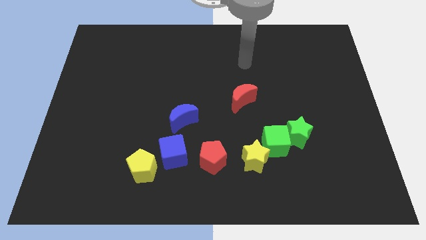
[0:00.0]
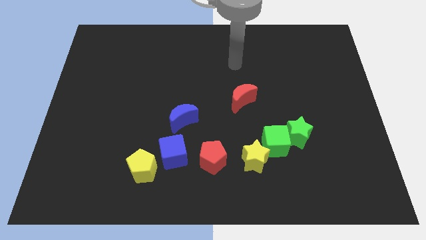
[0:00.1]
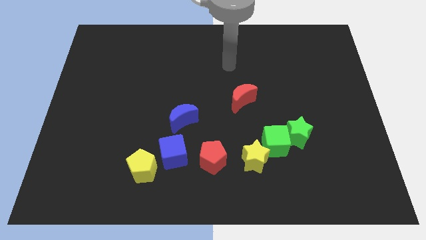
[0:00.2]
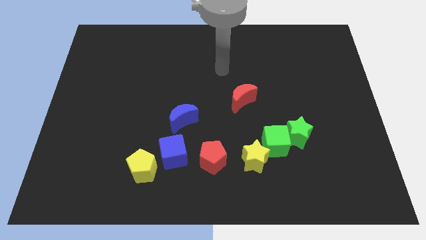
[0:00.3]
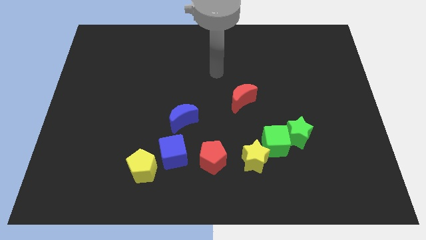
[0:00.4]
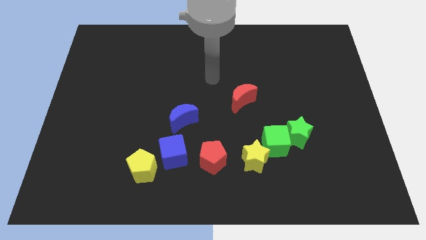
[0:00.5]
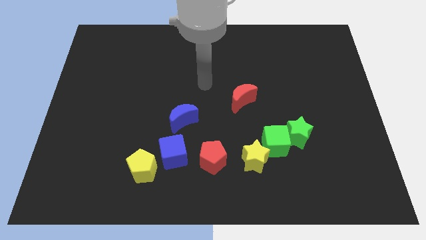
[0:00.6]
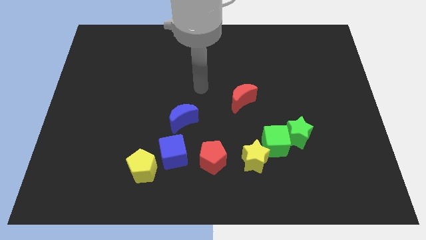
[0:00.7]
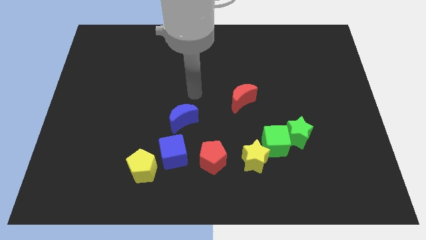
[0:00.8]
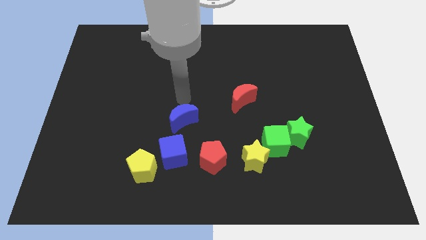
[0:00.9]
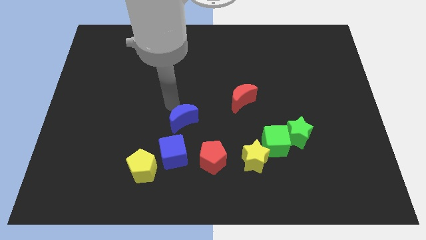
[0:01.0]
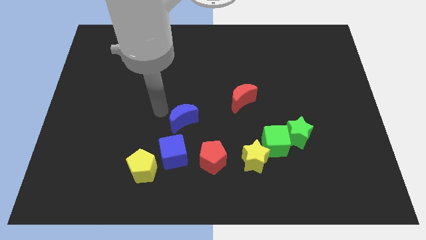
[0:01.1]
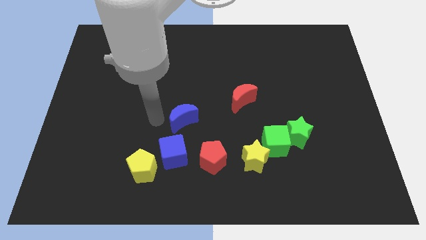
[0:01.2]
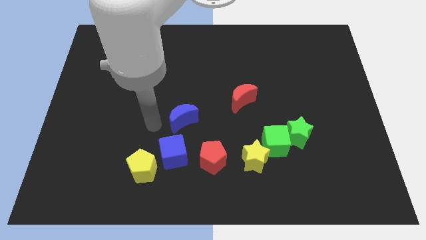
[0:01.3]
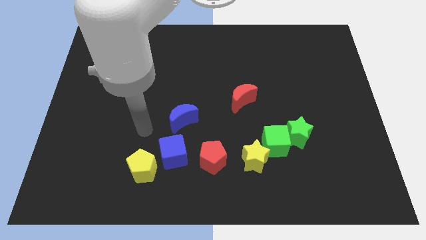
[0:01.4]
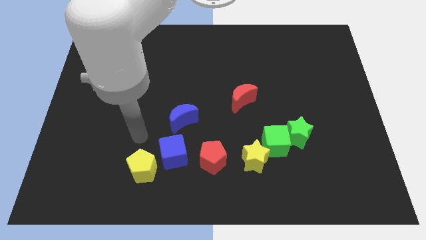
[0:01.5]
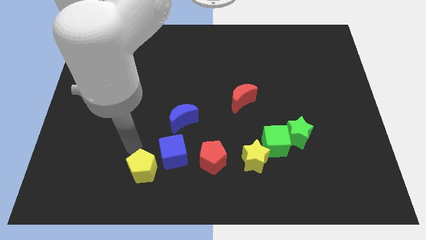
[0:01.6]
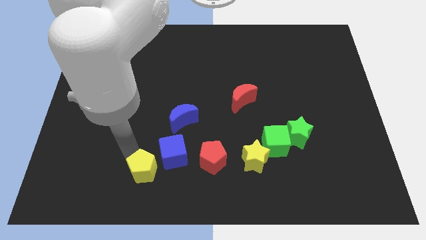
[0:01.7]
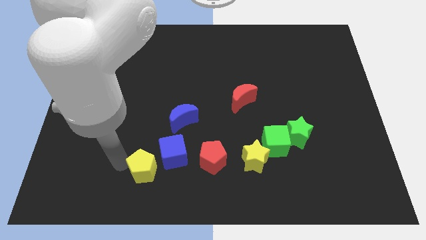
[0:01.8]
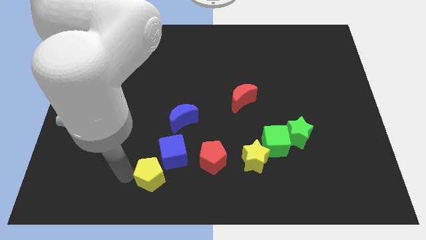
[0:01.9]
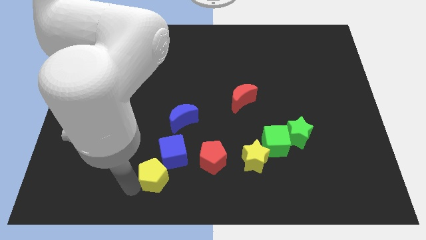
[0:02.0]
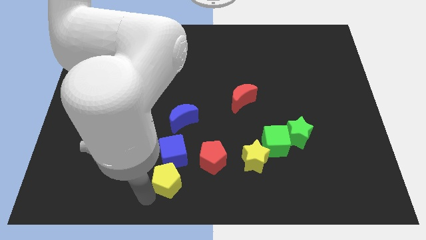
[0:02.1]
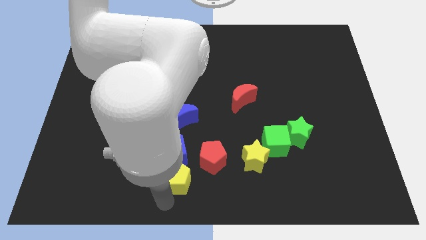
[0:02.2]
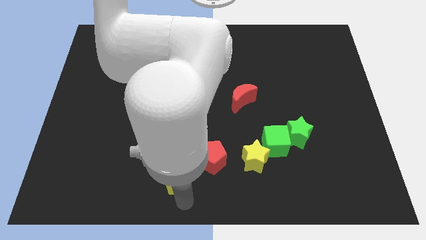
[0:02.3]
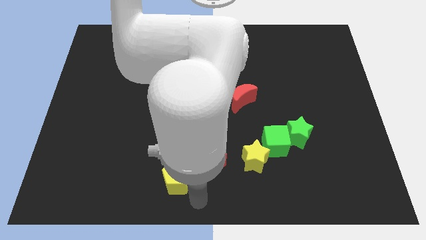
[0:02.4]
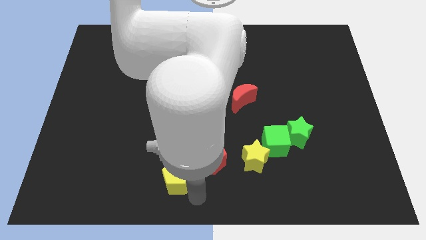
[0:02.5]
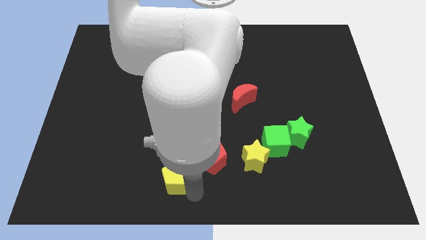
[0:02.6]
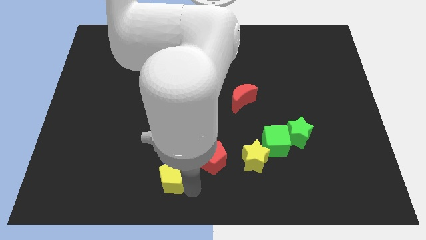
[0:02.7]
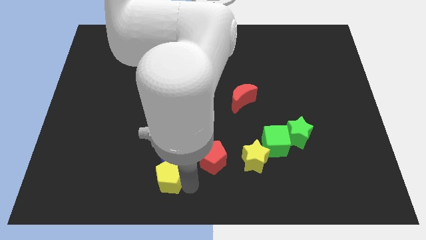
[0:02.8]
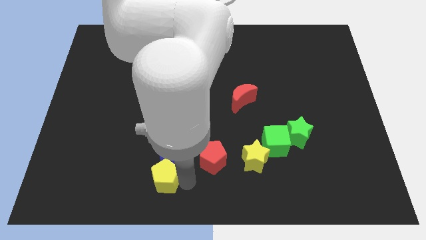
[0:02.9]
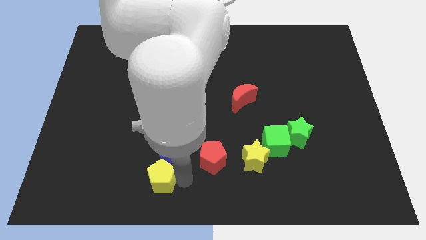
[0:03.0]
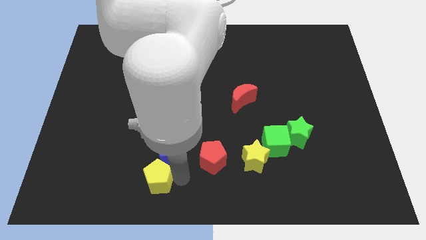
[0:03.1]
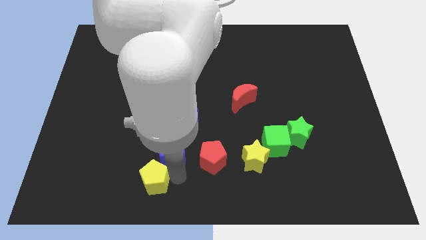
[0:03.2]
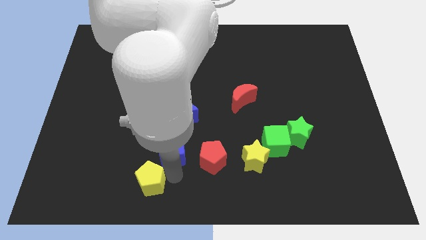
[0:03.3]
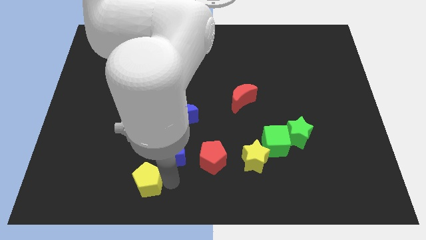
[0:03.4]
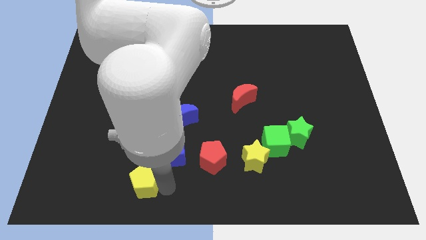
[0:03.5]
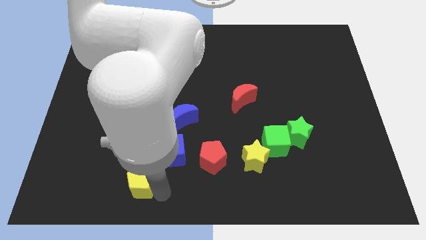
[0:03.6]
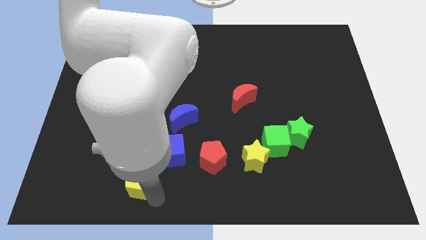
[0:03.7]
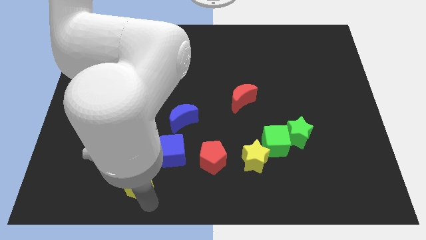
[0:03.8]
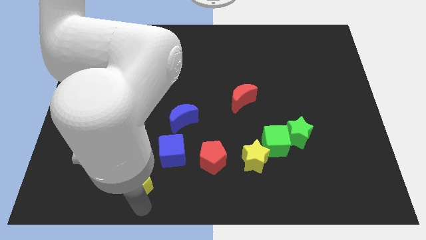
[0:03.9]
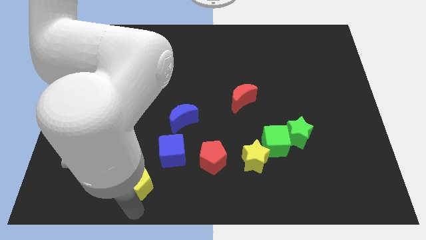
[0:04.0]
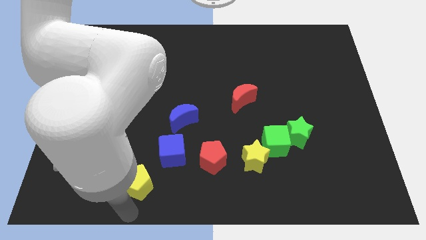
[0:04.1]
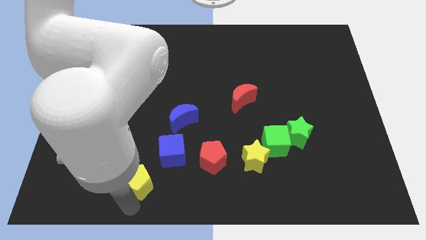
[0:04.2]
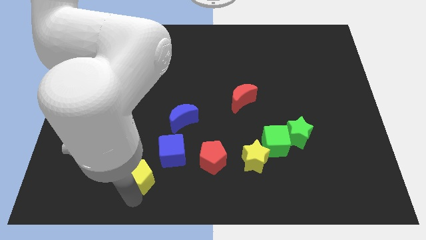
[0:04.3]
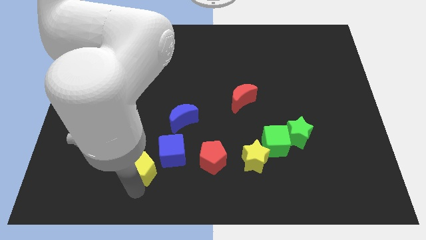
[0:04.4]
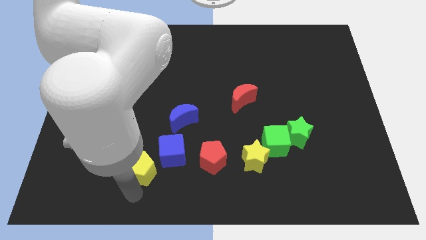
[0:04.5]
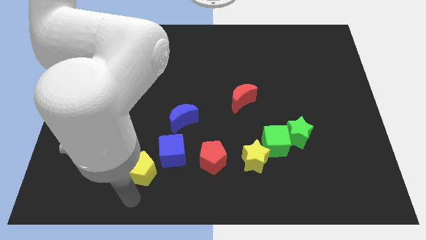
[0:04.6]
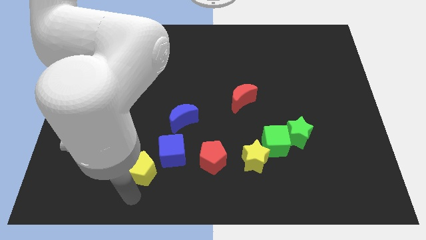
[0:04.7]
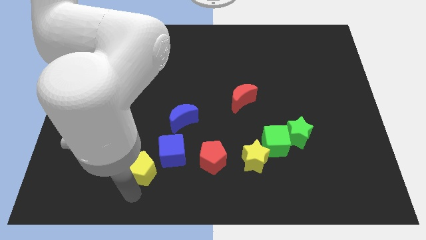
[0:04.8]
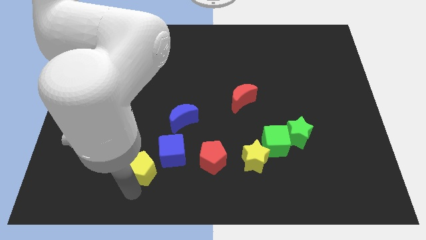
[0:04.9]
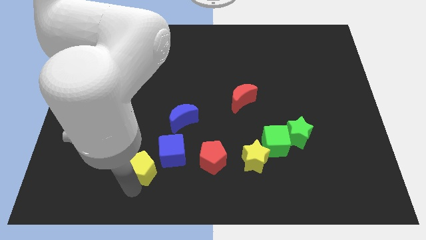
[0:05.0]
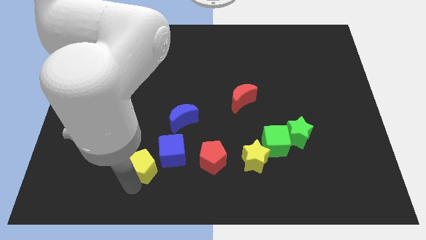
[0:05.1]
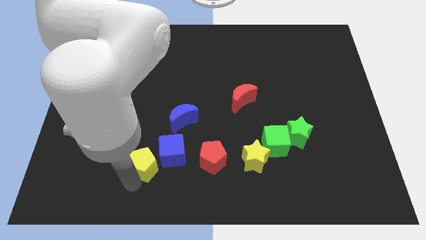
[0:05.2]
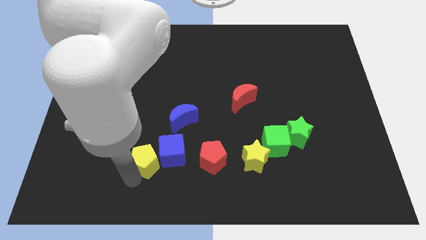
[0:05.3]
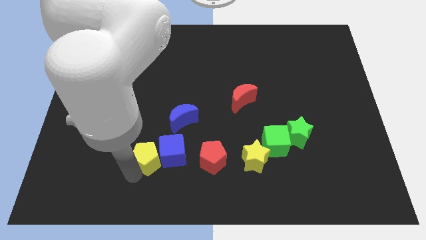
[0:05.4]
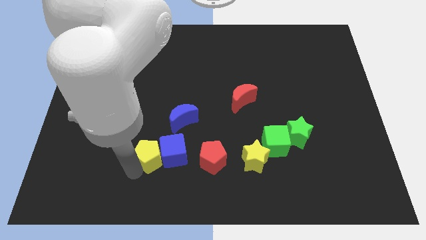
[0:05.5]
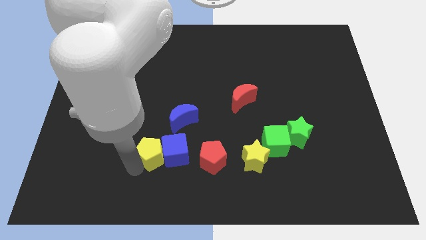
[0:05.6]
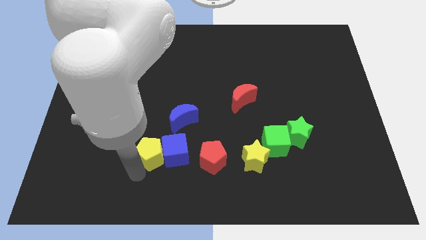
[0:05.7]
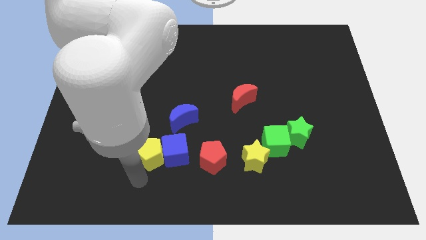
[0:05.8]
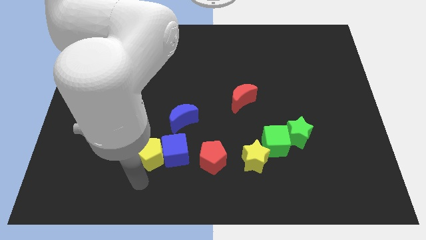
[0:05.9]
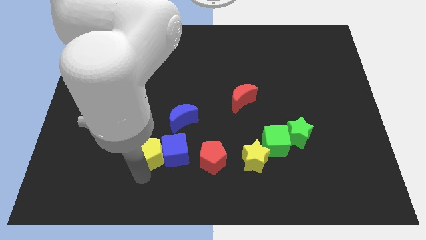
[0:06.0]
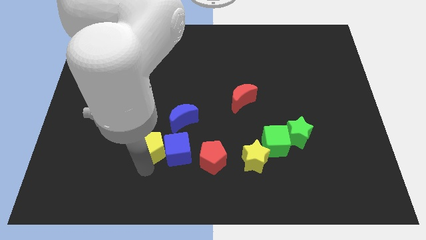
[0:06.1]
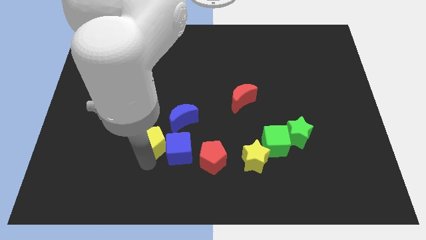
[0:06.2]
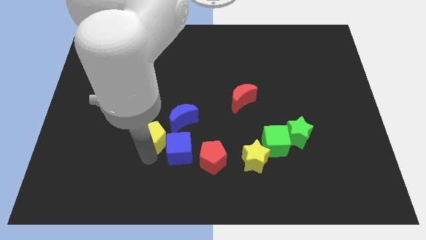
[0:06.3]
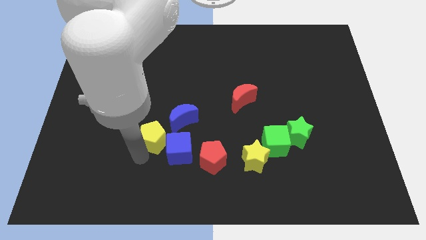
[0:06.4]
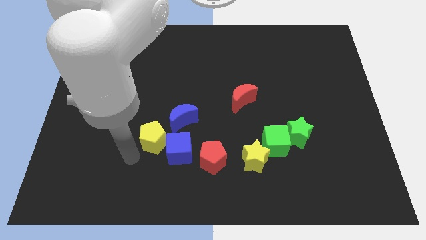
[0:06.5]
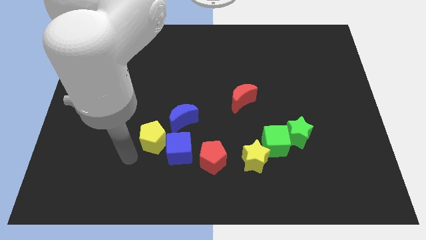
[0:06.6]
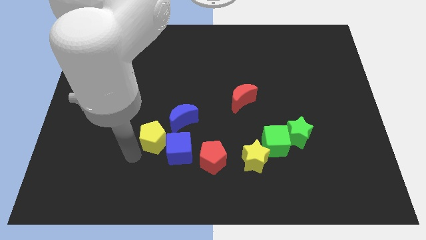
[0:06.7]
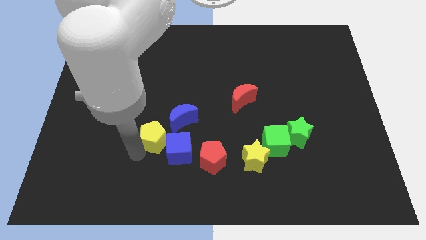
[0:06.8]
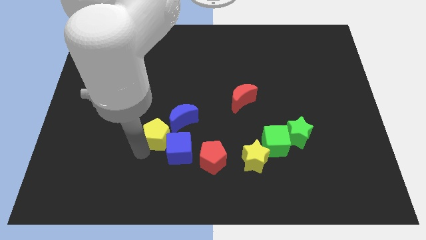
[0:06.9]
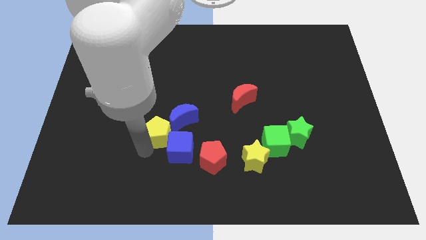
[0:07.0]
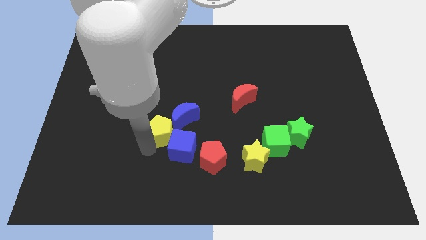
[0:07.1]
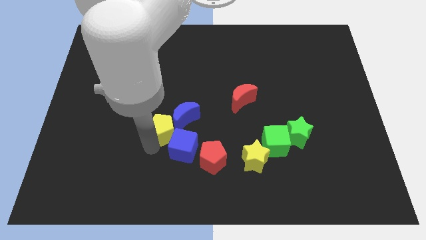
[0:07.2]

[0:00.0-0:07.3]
push the yellow pentagon to the blue moon
